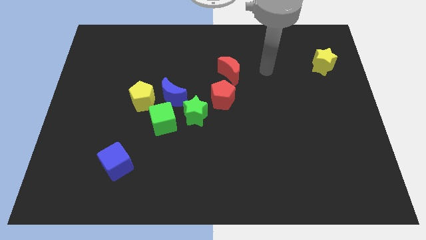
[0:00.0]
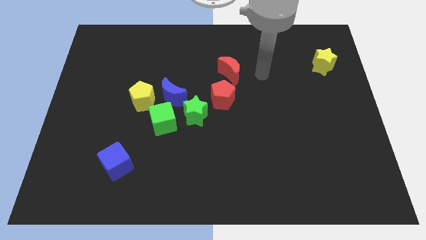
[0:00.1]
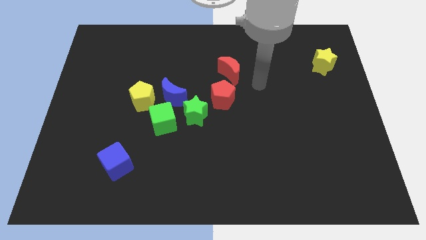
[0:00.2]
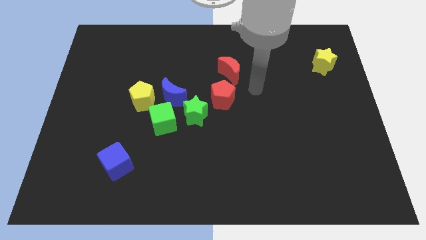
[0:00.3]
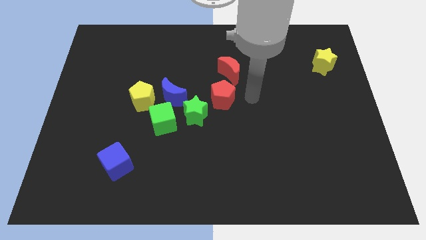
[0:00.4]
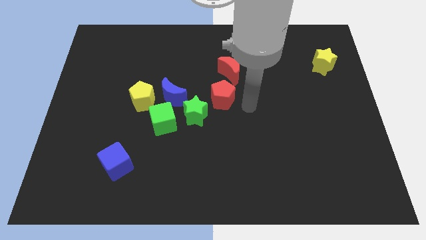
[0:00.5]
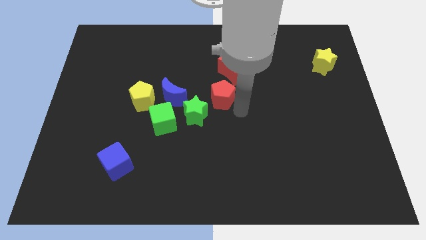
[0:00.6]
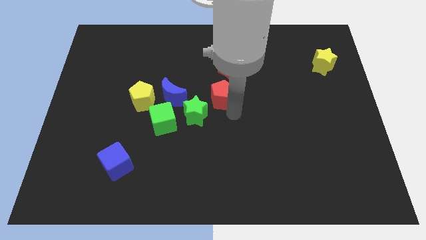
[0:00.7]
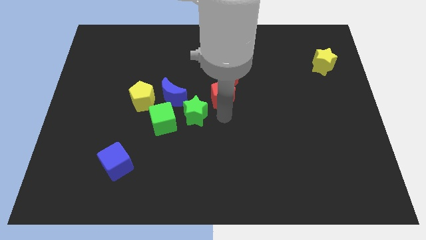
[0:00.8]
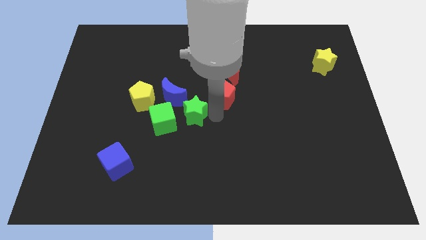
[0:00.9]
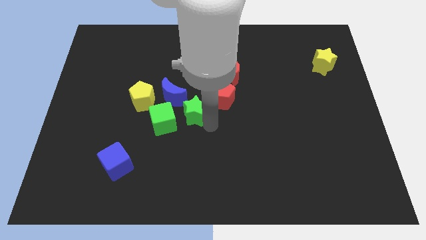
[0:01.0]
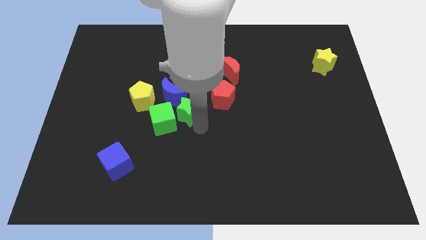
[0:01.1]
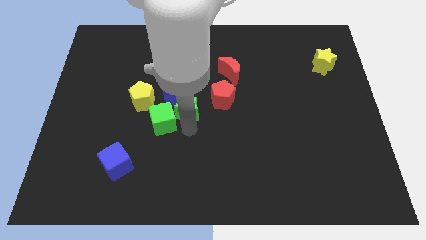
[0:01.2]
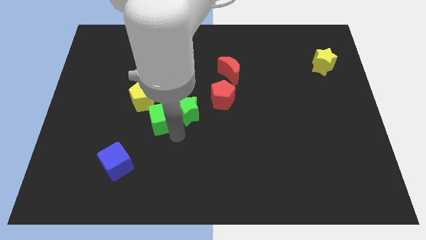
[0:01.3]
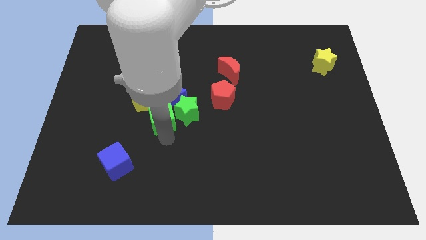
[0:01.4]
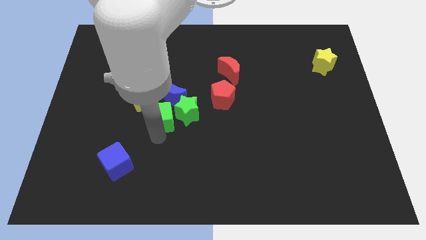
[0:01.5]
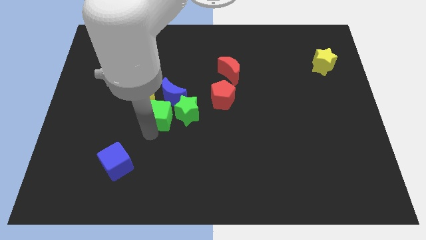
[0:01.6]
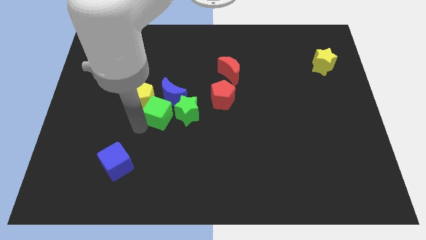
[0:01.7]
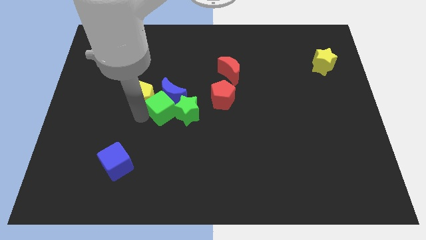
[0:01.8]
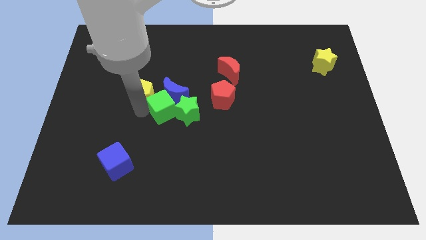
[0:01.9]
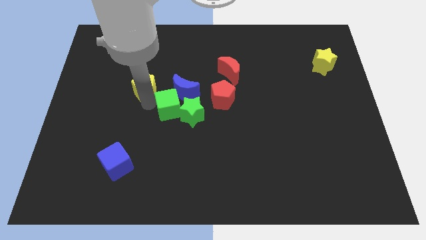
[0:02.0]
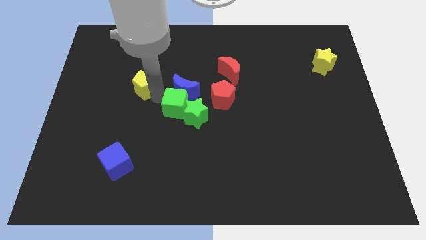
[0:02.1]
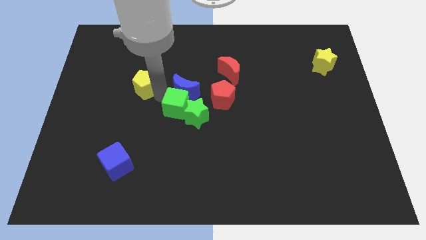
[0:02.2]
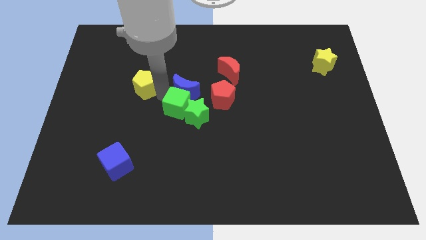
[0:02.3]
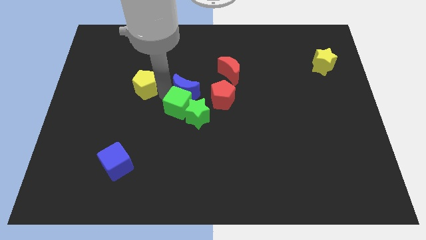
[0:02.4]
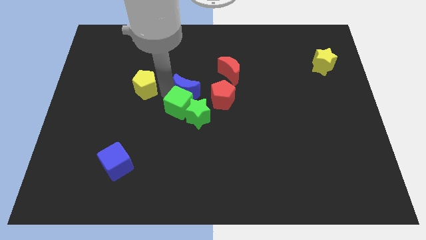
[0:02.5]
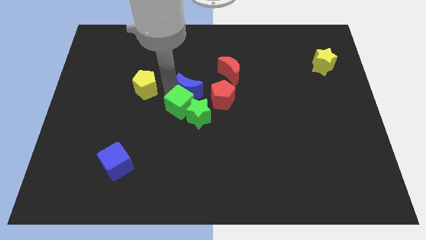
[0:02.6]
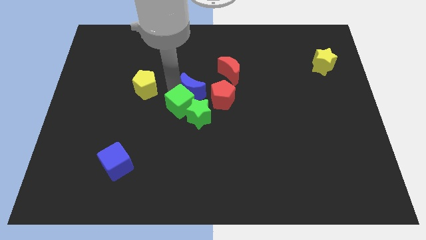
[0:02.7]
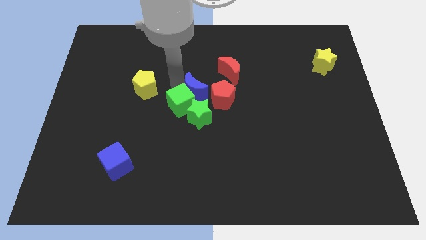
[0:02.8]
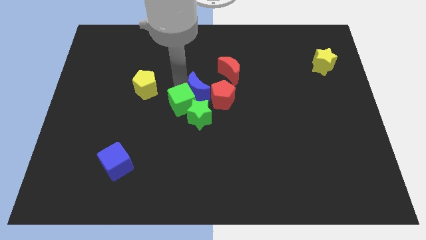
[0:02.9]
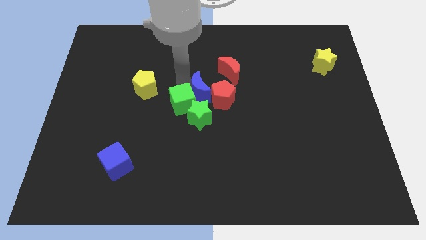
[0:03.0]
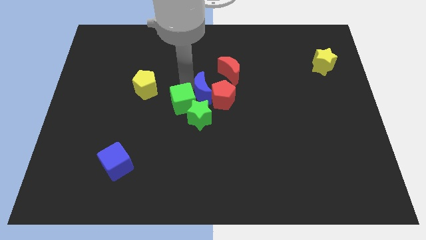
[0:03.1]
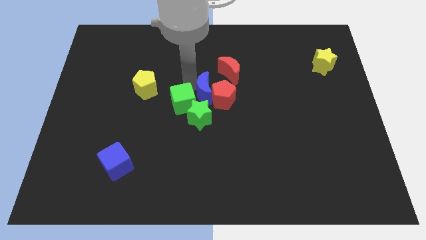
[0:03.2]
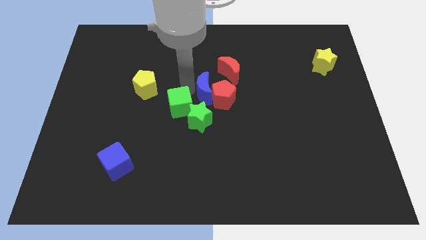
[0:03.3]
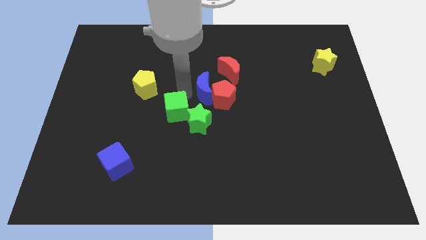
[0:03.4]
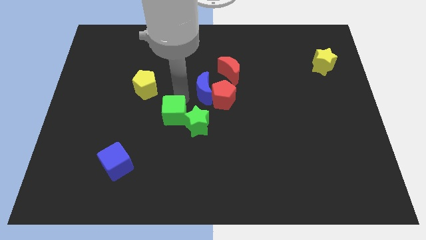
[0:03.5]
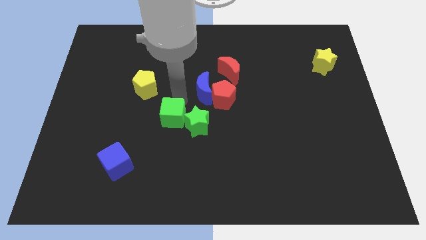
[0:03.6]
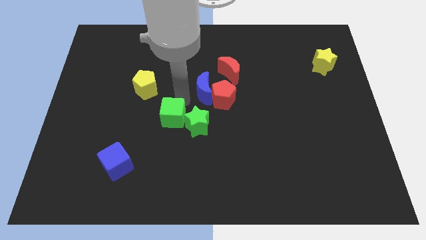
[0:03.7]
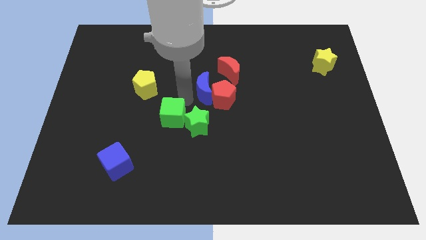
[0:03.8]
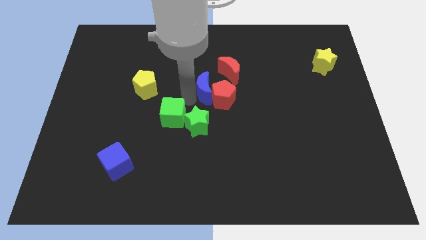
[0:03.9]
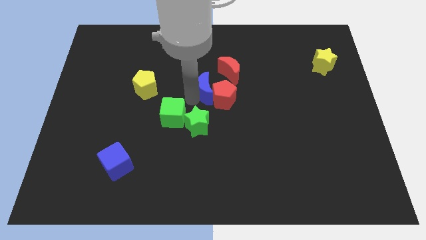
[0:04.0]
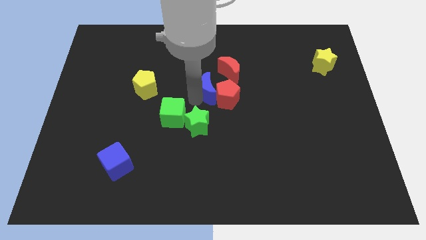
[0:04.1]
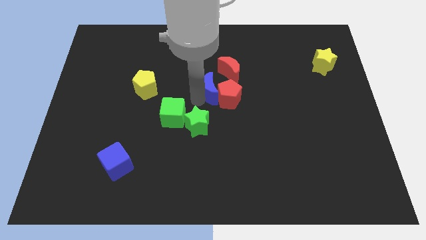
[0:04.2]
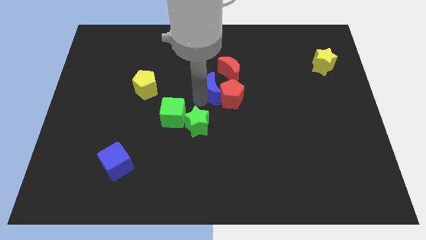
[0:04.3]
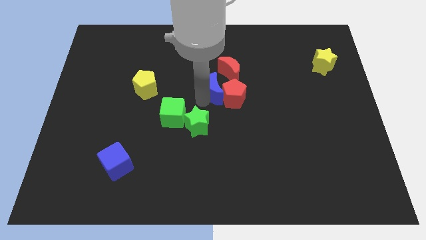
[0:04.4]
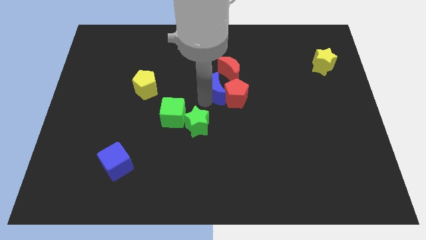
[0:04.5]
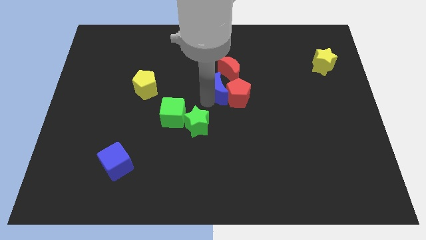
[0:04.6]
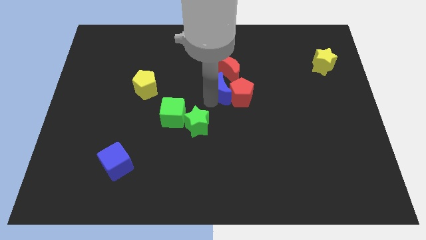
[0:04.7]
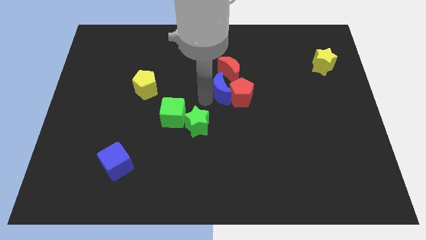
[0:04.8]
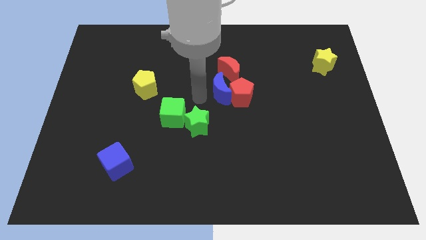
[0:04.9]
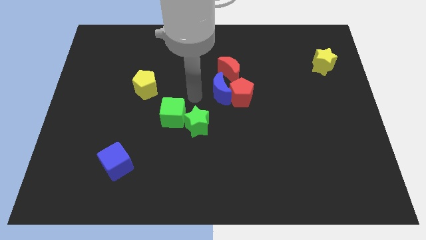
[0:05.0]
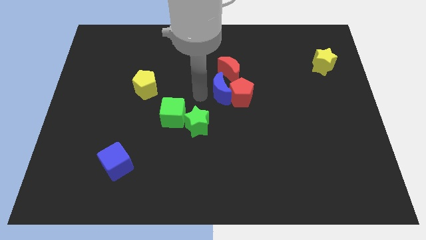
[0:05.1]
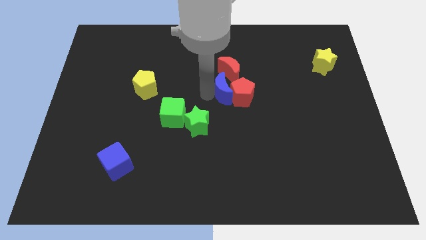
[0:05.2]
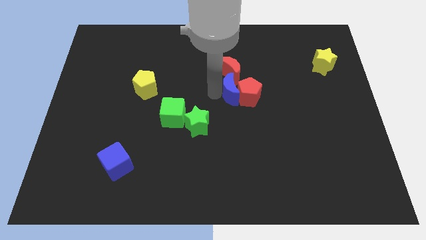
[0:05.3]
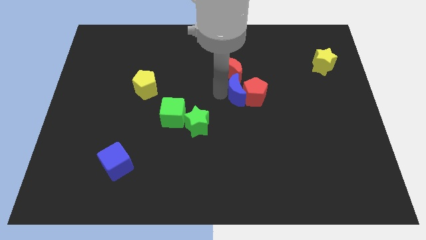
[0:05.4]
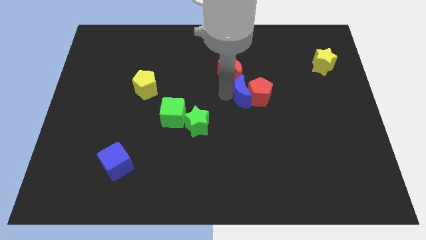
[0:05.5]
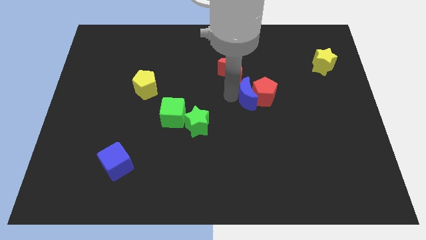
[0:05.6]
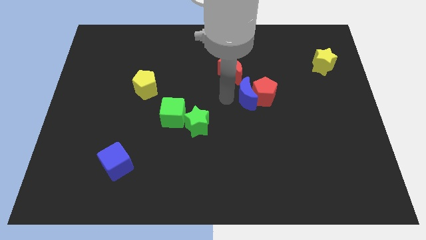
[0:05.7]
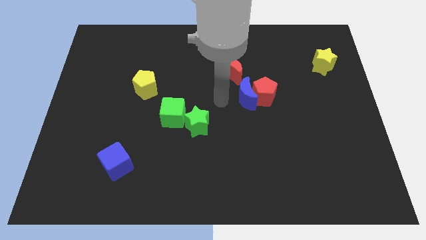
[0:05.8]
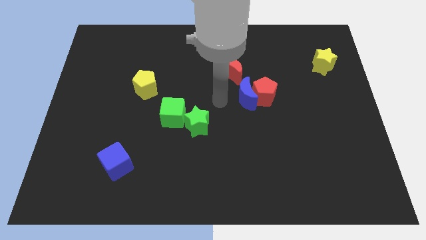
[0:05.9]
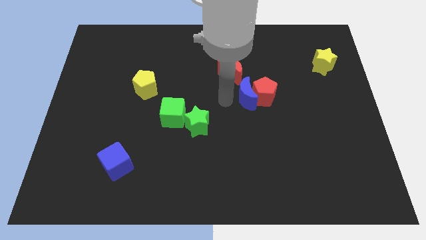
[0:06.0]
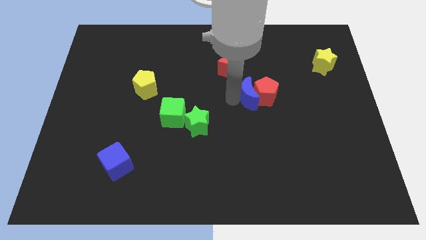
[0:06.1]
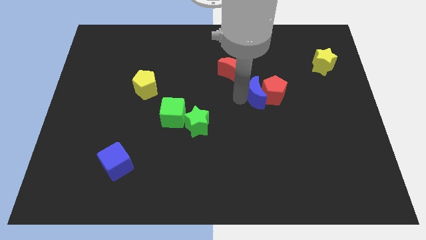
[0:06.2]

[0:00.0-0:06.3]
push the blue moon to the right

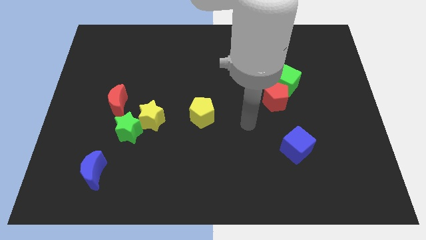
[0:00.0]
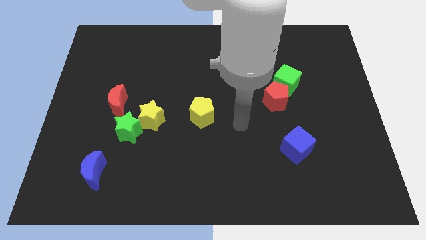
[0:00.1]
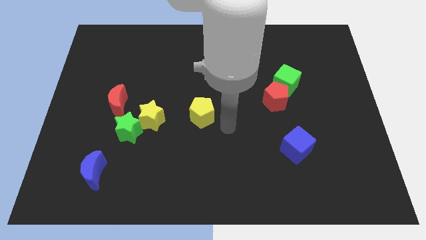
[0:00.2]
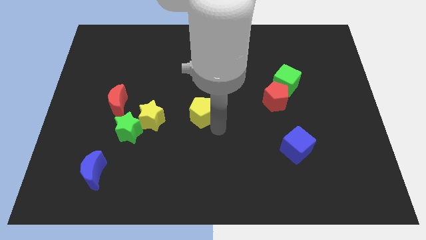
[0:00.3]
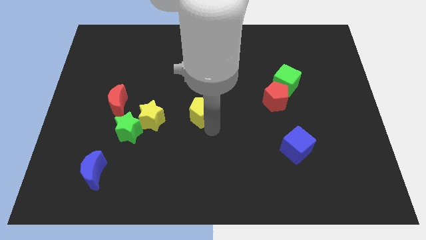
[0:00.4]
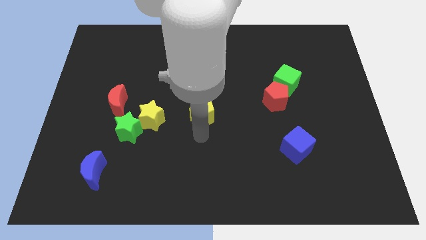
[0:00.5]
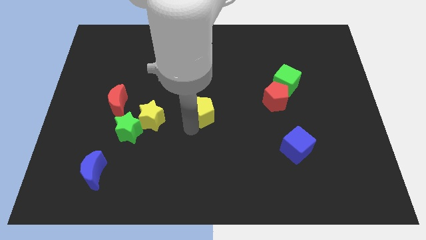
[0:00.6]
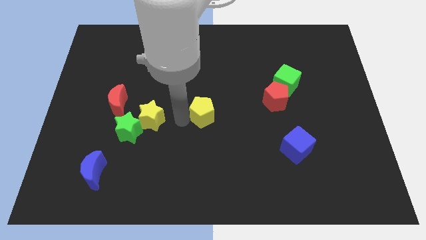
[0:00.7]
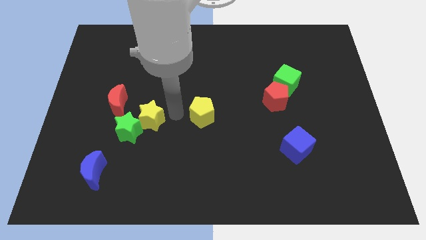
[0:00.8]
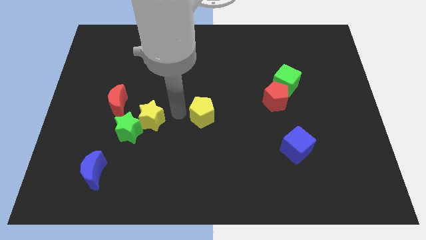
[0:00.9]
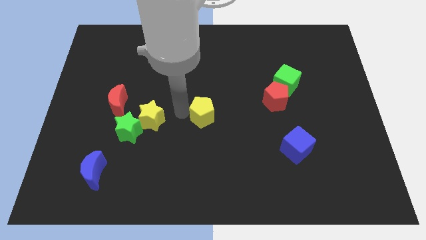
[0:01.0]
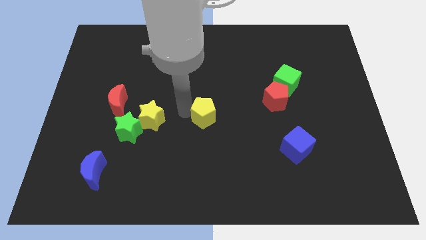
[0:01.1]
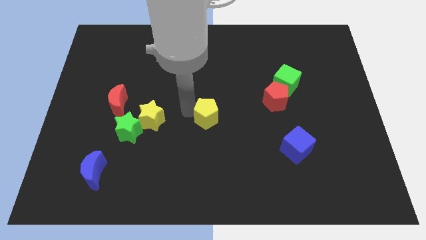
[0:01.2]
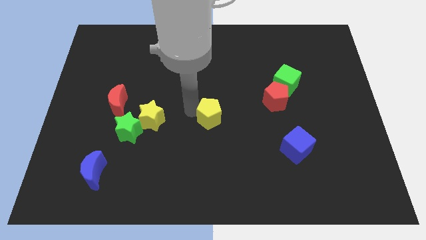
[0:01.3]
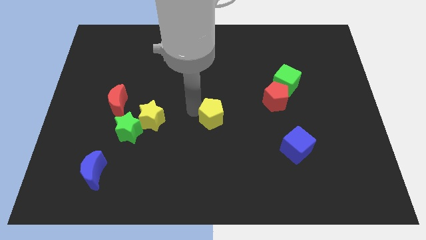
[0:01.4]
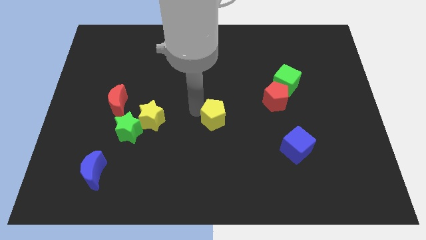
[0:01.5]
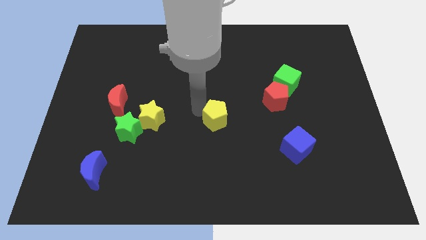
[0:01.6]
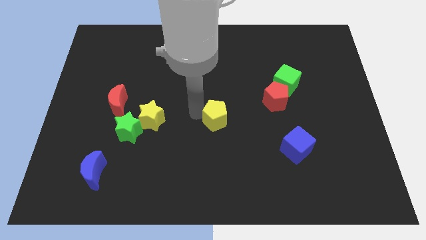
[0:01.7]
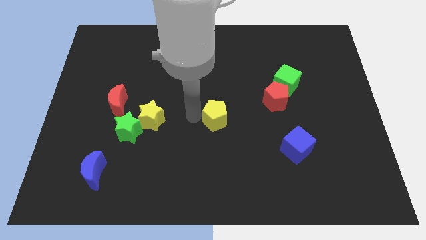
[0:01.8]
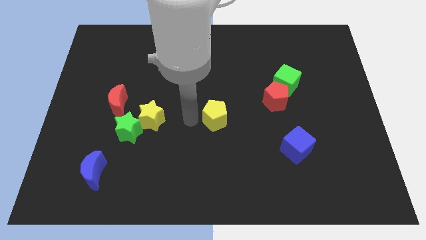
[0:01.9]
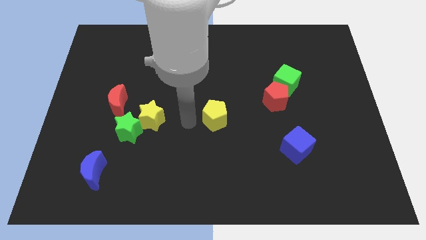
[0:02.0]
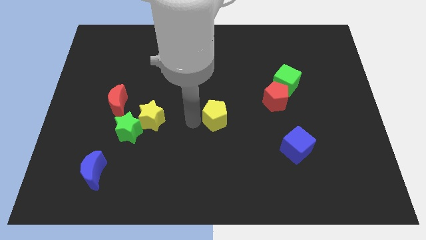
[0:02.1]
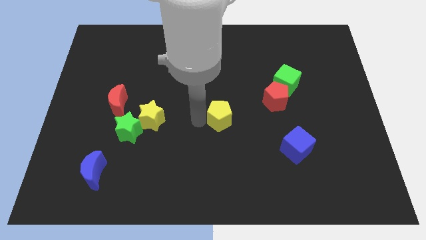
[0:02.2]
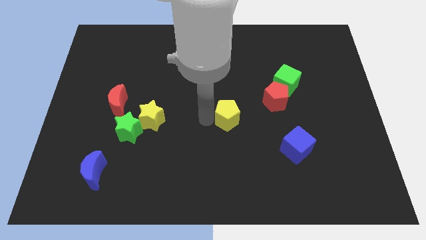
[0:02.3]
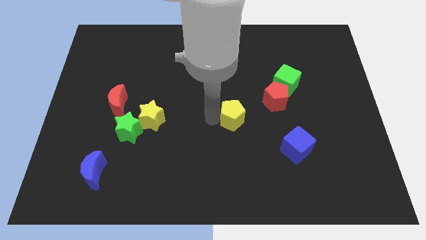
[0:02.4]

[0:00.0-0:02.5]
slightly move the yellow pentagon right
